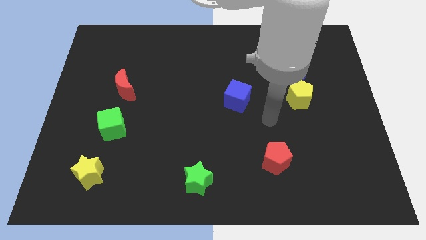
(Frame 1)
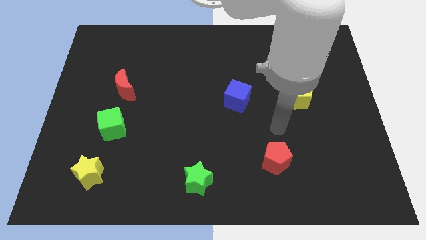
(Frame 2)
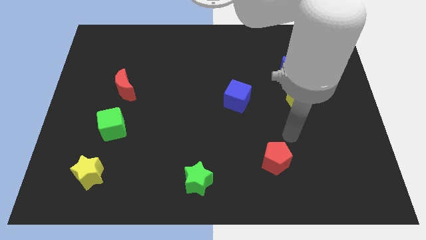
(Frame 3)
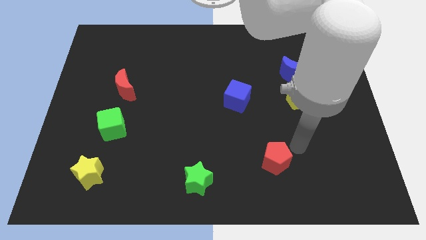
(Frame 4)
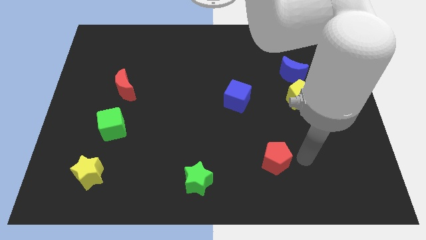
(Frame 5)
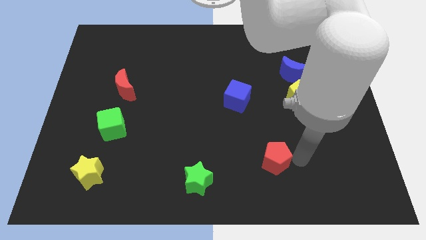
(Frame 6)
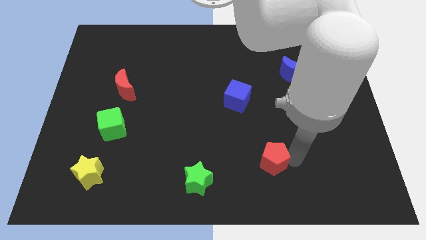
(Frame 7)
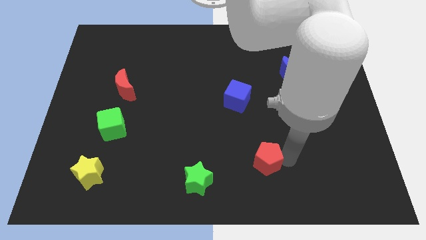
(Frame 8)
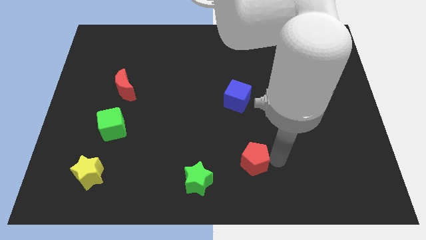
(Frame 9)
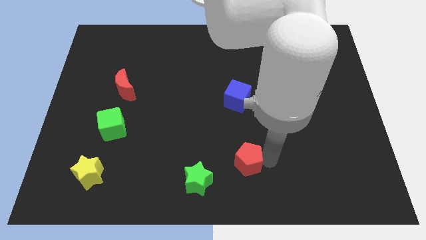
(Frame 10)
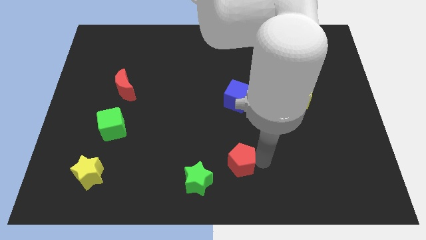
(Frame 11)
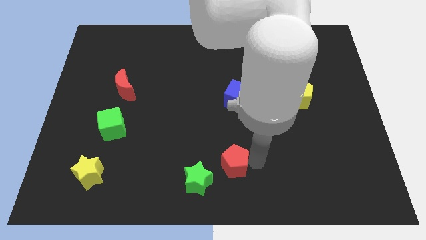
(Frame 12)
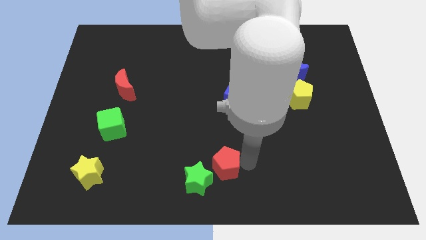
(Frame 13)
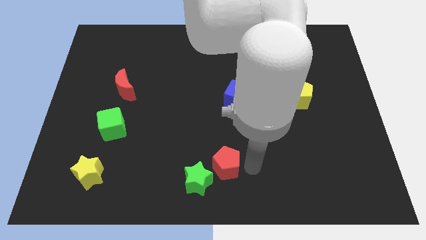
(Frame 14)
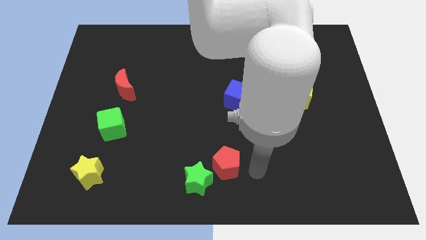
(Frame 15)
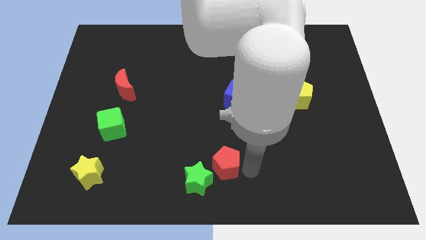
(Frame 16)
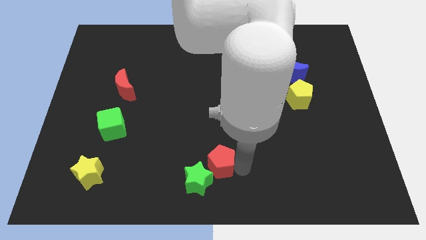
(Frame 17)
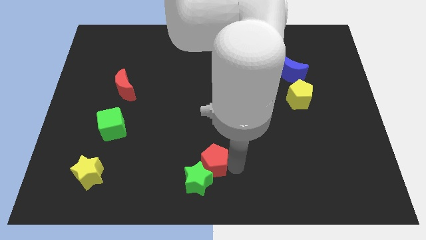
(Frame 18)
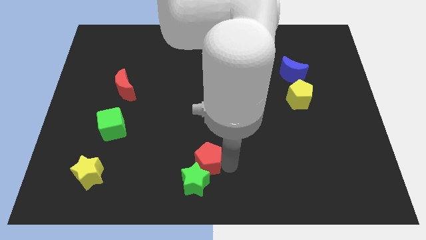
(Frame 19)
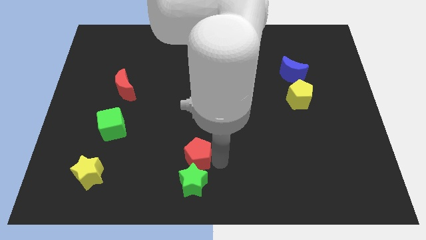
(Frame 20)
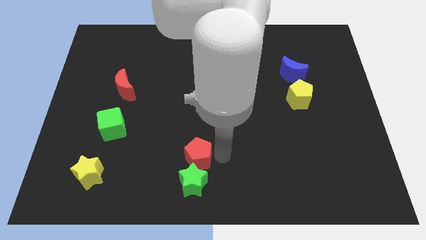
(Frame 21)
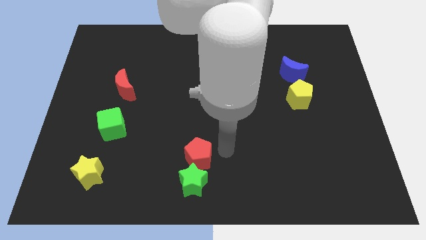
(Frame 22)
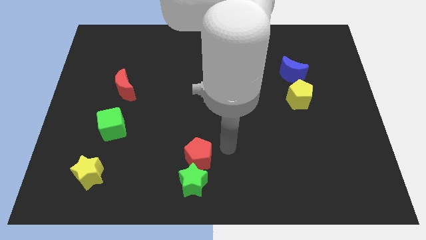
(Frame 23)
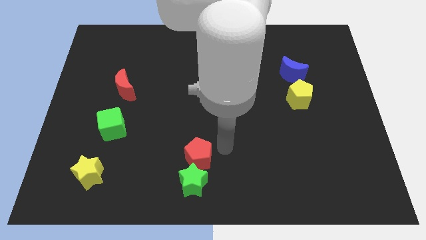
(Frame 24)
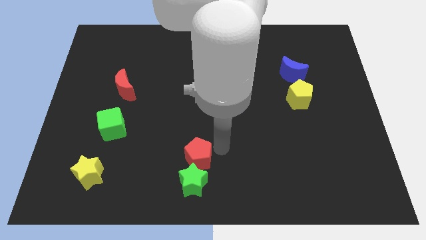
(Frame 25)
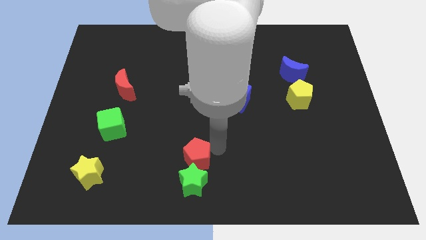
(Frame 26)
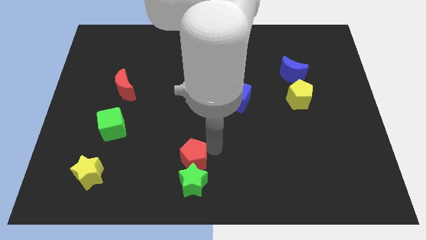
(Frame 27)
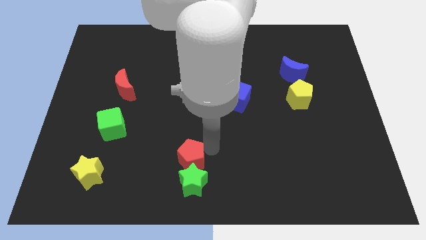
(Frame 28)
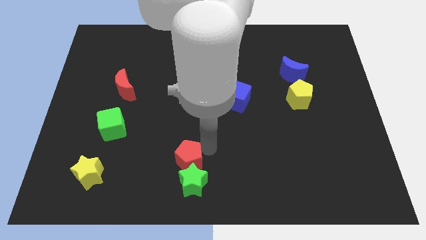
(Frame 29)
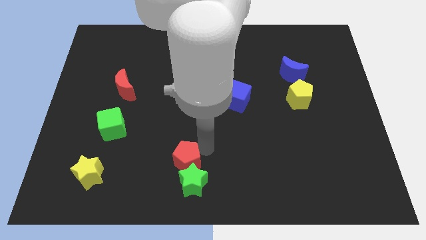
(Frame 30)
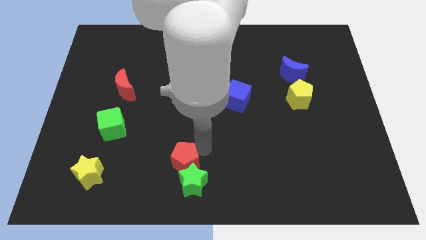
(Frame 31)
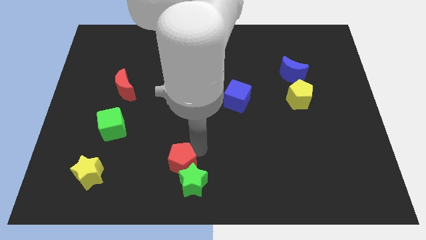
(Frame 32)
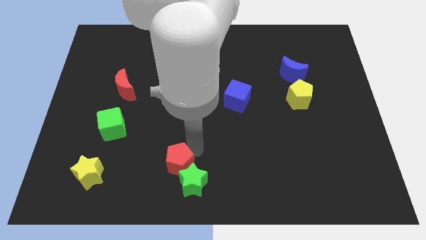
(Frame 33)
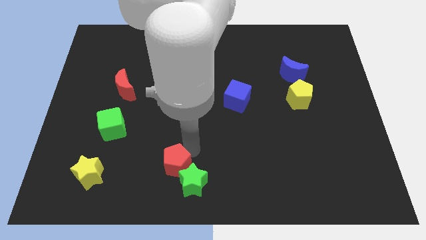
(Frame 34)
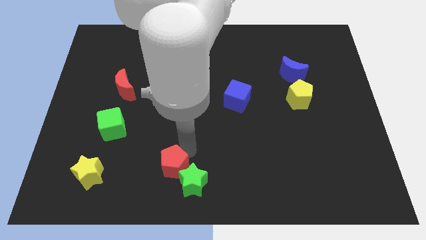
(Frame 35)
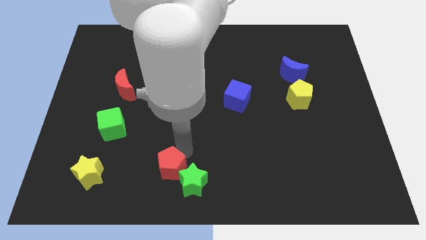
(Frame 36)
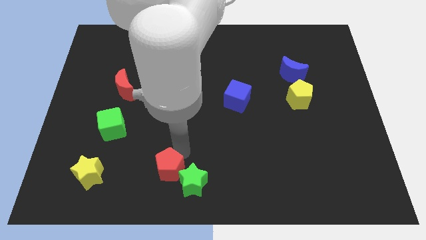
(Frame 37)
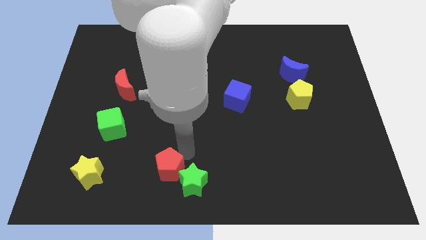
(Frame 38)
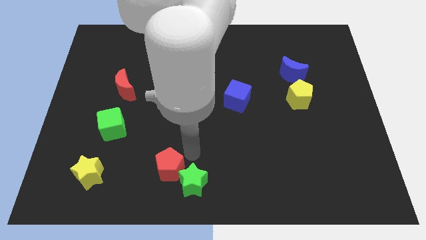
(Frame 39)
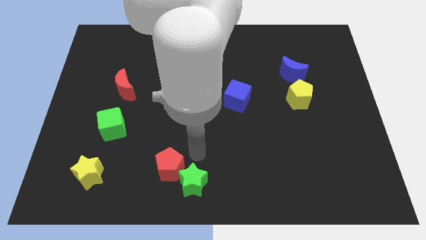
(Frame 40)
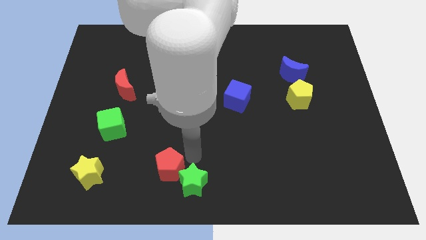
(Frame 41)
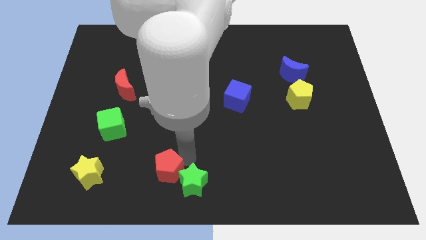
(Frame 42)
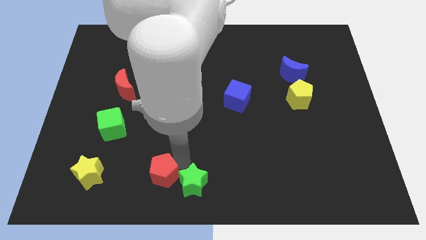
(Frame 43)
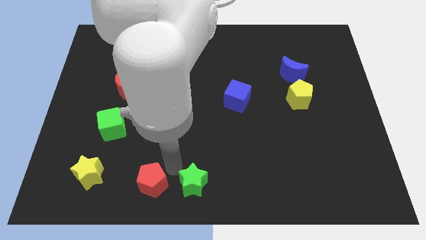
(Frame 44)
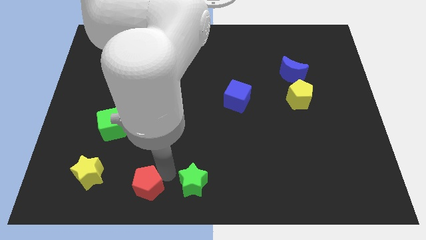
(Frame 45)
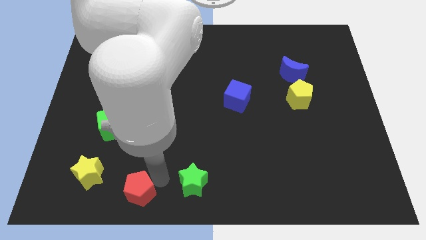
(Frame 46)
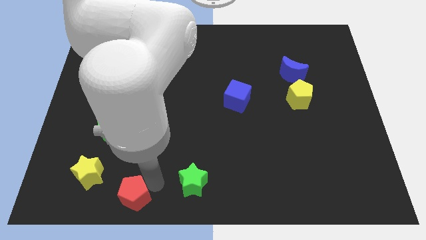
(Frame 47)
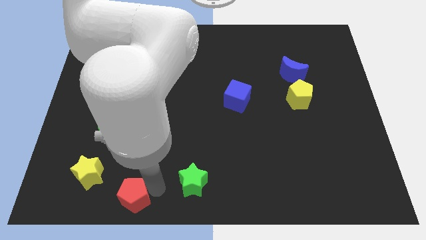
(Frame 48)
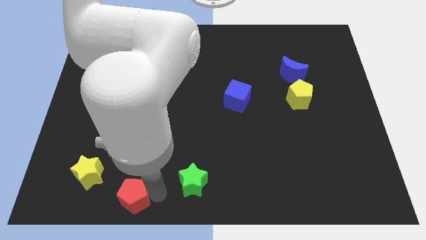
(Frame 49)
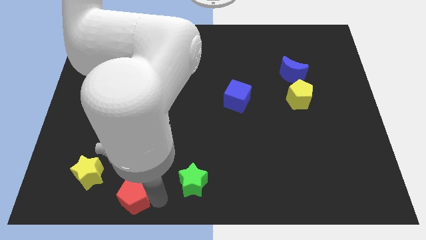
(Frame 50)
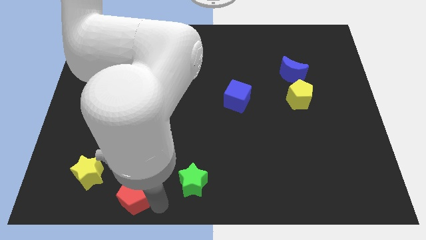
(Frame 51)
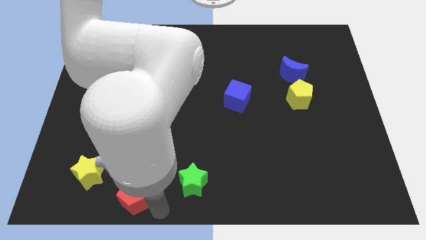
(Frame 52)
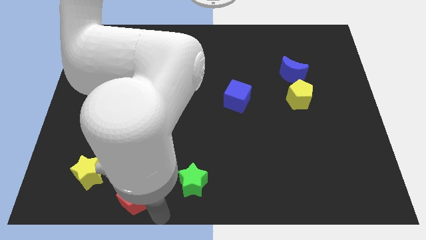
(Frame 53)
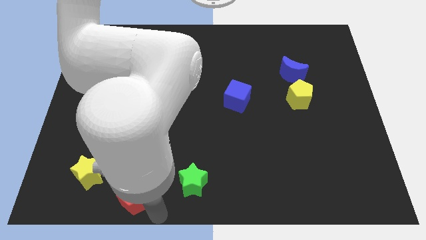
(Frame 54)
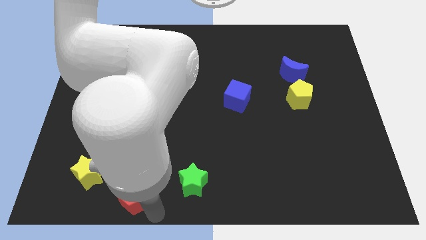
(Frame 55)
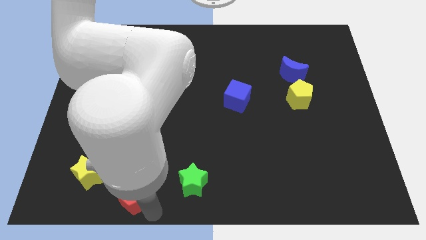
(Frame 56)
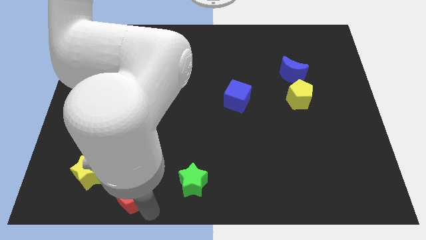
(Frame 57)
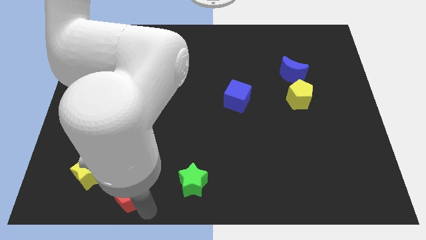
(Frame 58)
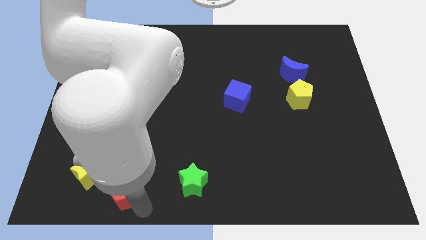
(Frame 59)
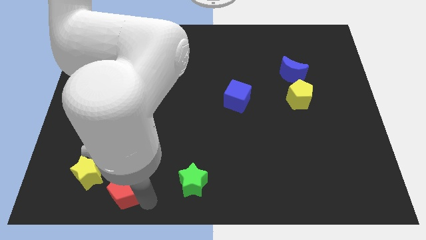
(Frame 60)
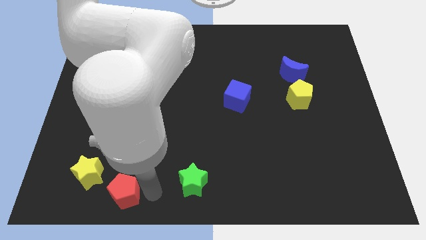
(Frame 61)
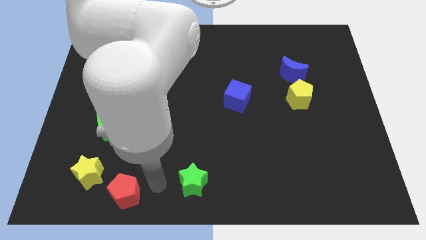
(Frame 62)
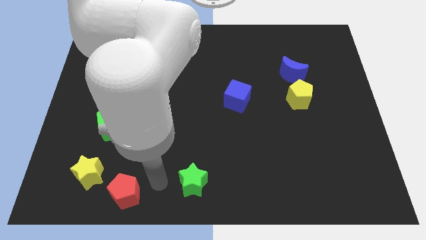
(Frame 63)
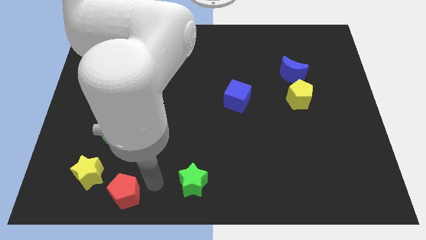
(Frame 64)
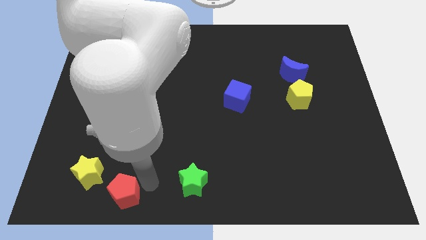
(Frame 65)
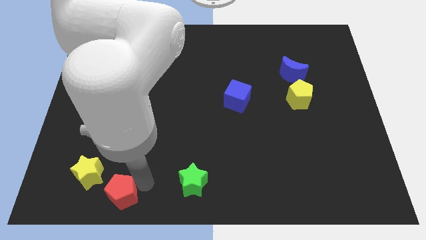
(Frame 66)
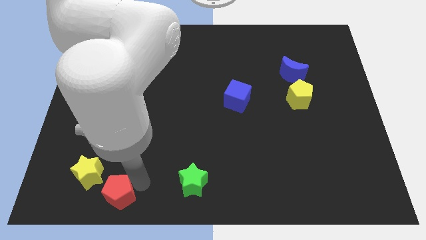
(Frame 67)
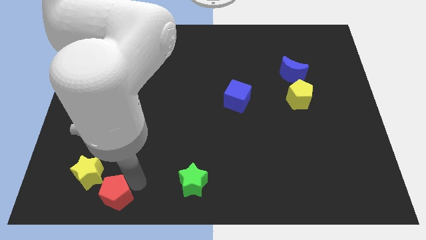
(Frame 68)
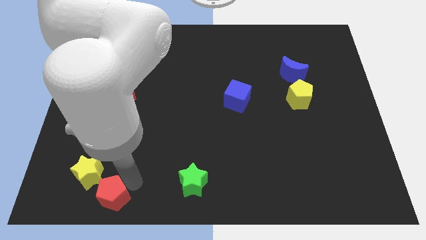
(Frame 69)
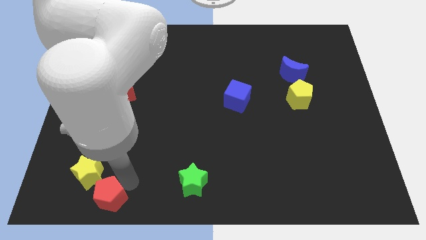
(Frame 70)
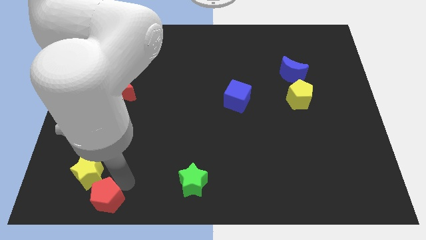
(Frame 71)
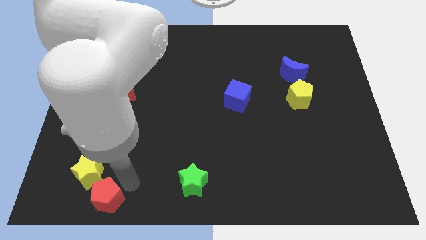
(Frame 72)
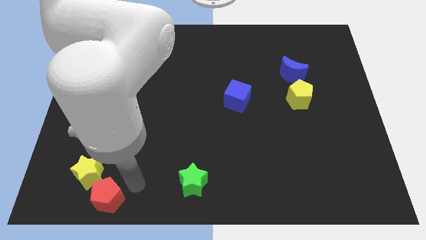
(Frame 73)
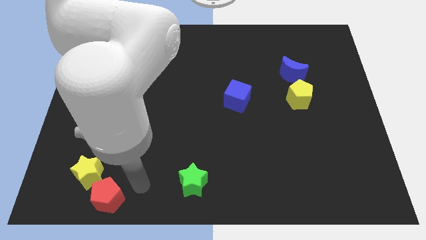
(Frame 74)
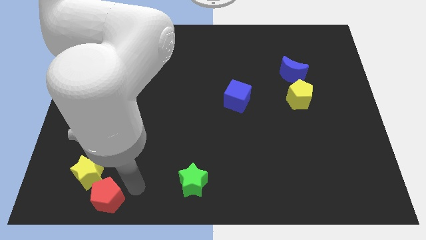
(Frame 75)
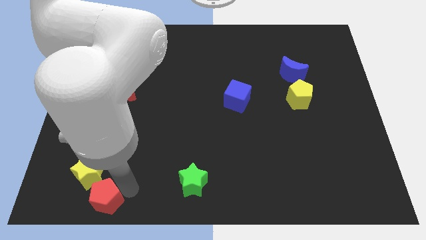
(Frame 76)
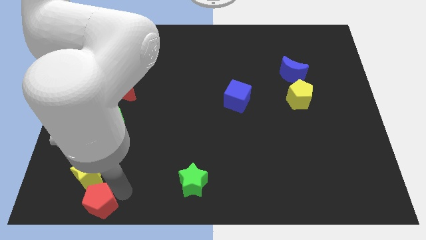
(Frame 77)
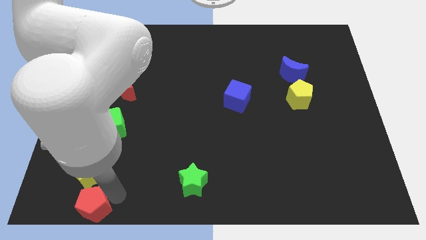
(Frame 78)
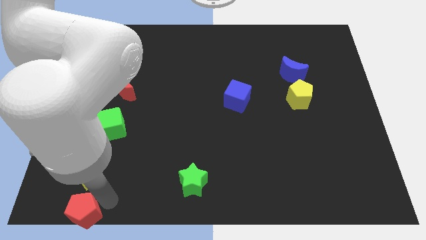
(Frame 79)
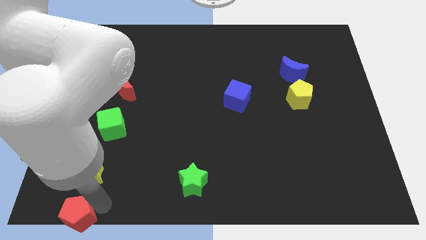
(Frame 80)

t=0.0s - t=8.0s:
put the red pentagon to the lower left corner
